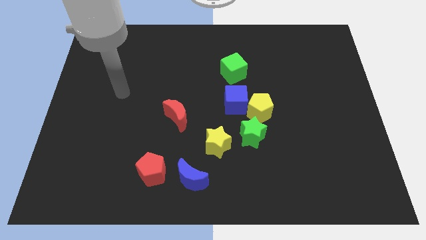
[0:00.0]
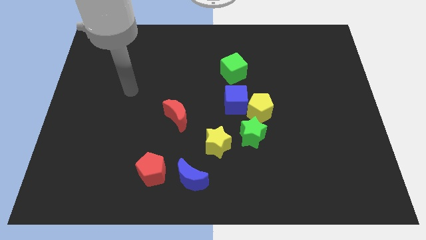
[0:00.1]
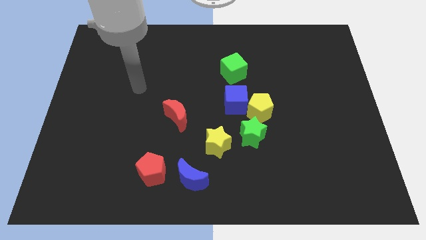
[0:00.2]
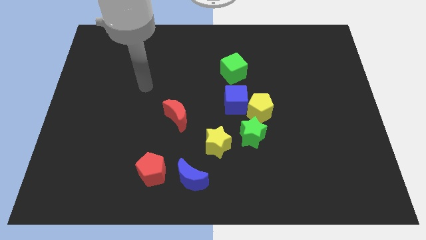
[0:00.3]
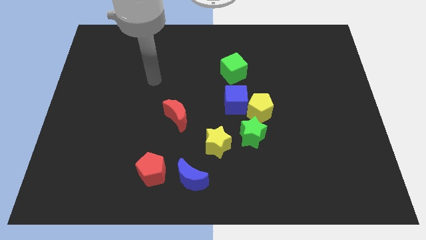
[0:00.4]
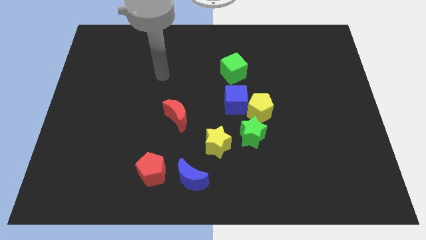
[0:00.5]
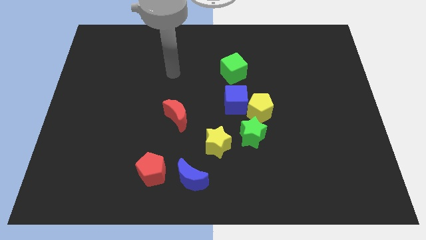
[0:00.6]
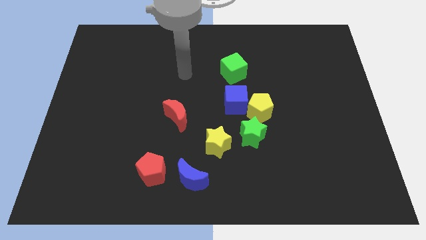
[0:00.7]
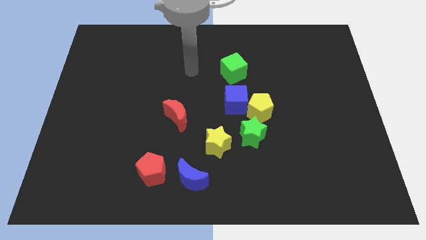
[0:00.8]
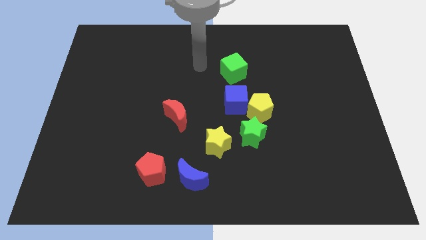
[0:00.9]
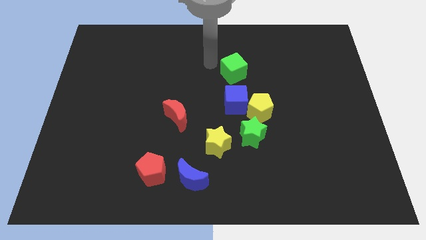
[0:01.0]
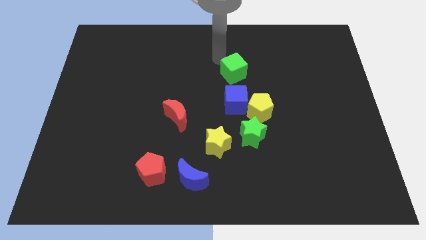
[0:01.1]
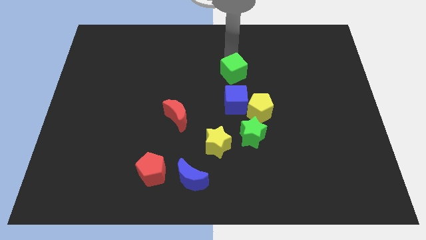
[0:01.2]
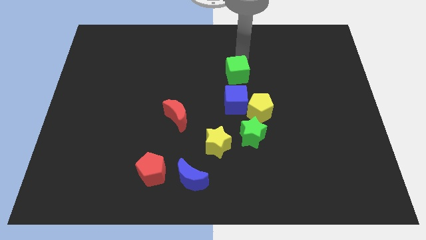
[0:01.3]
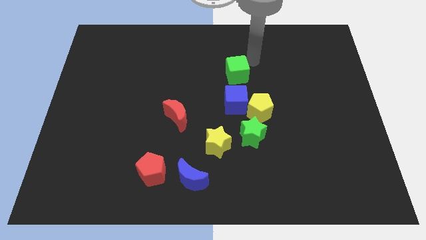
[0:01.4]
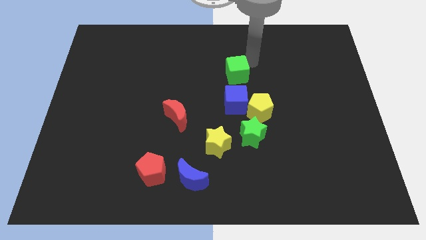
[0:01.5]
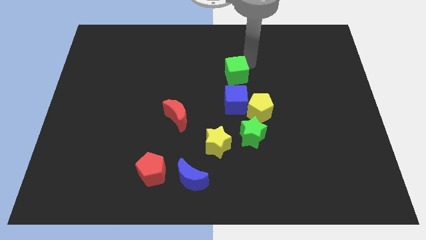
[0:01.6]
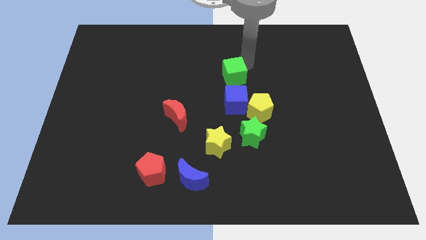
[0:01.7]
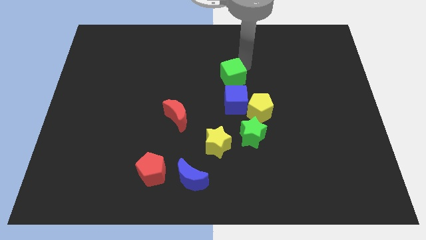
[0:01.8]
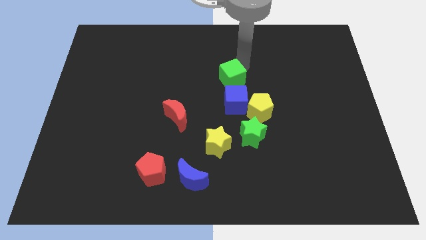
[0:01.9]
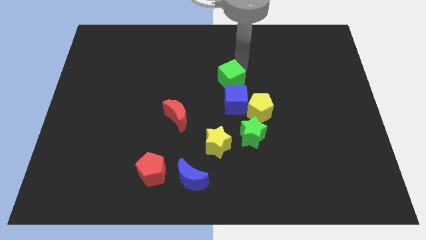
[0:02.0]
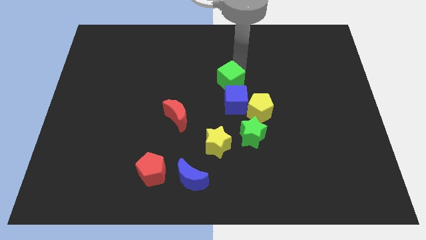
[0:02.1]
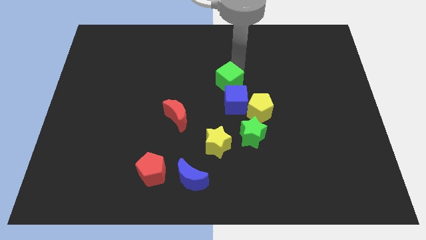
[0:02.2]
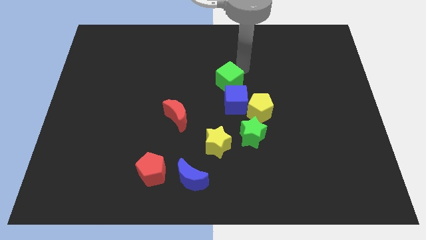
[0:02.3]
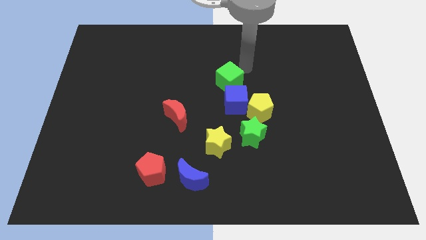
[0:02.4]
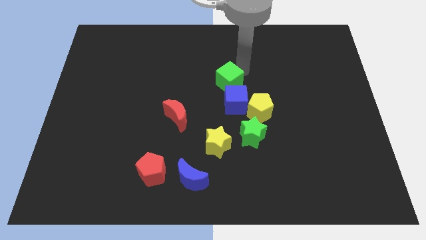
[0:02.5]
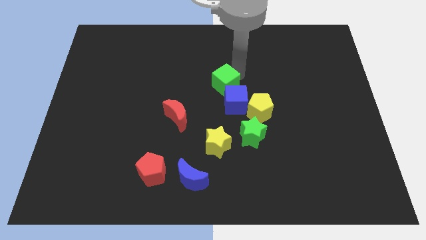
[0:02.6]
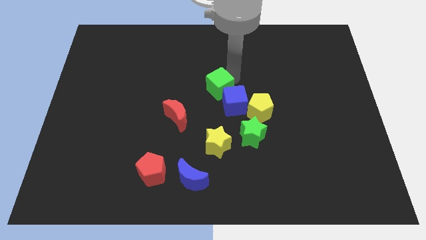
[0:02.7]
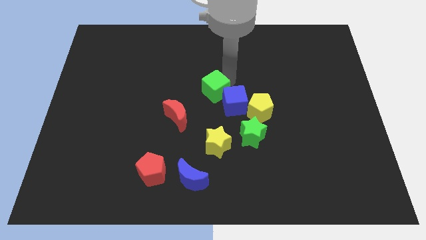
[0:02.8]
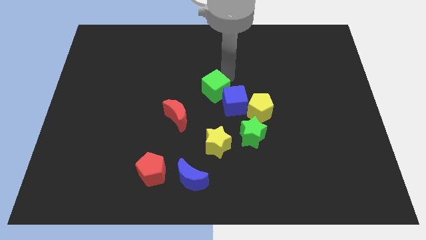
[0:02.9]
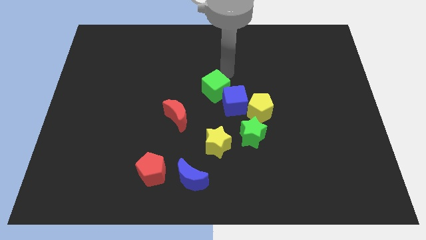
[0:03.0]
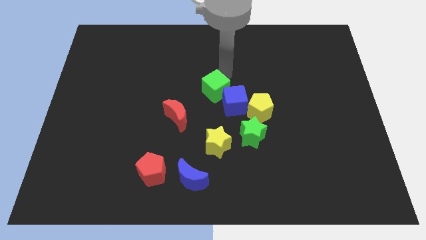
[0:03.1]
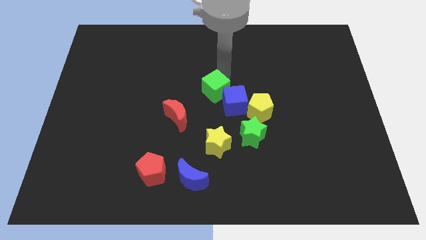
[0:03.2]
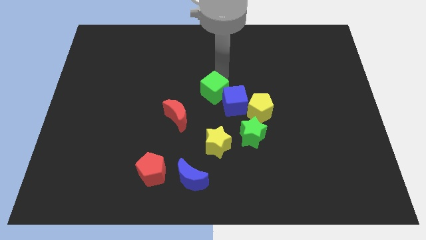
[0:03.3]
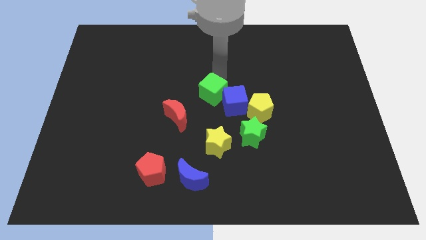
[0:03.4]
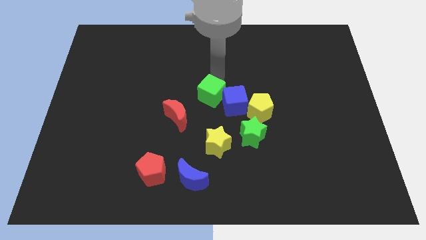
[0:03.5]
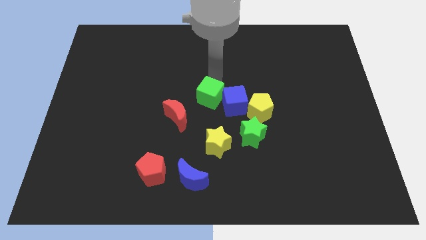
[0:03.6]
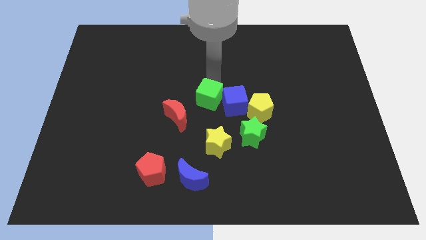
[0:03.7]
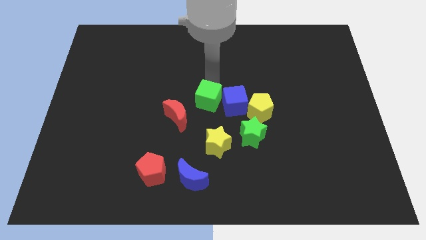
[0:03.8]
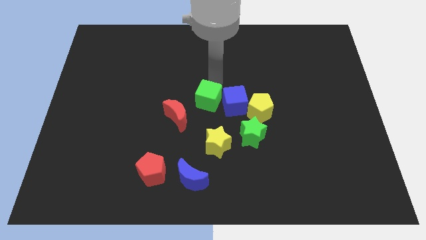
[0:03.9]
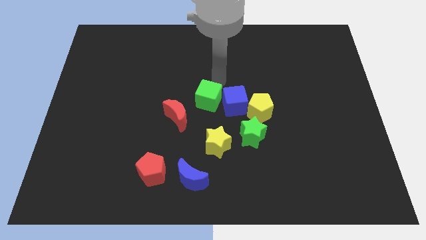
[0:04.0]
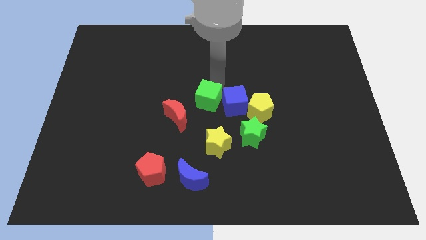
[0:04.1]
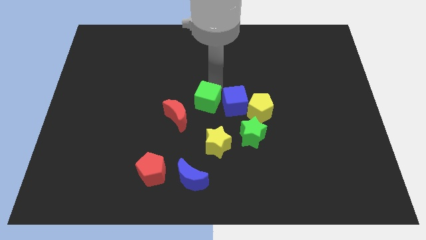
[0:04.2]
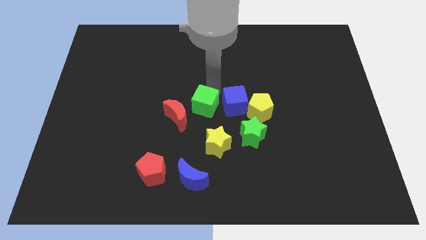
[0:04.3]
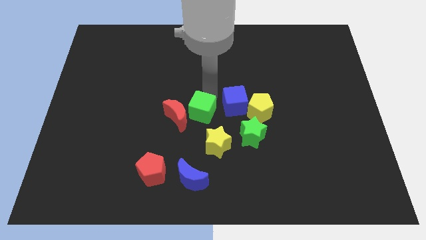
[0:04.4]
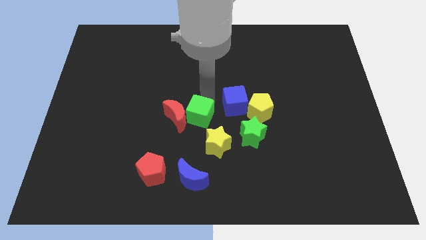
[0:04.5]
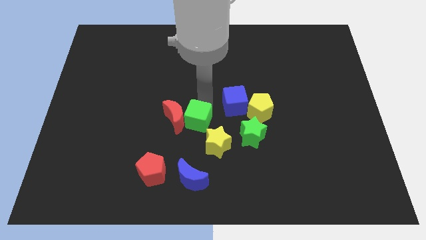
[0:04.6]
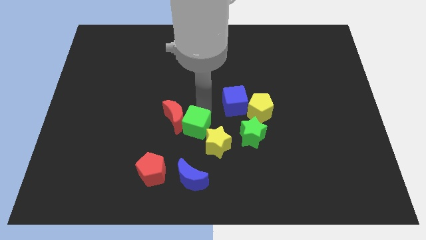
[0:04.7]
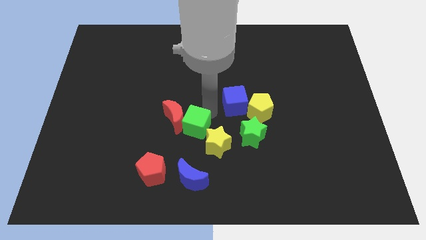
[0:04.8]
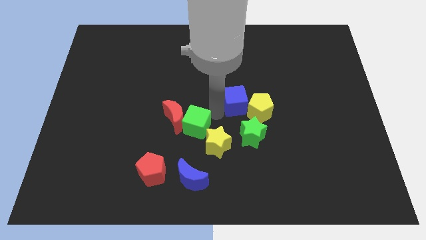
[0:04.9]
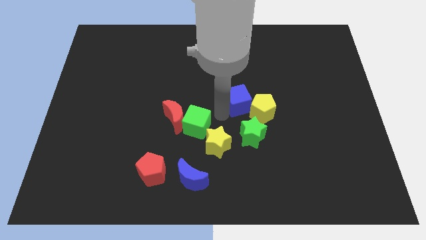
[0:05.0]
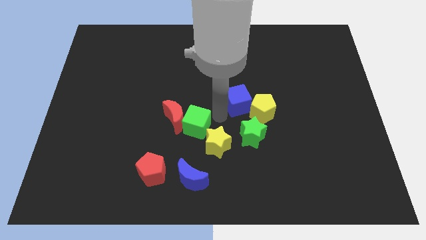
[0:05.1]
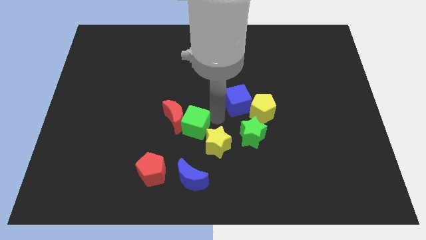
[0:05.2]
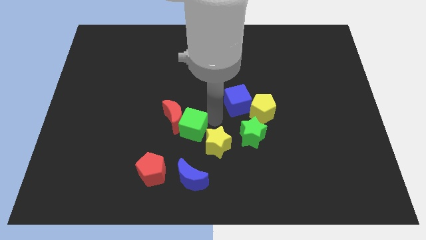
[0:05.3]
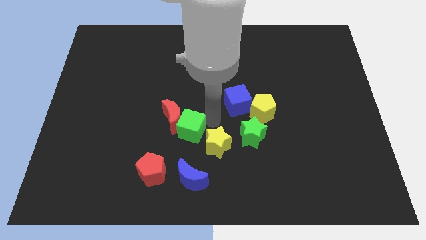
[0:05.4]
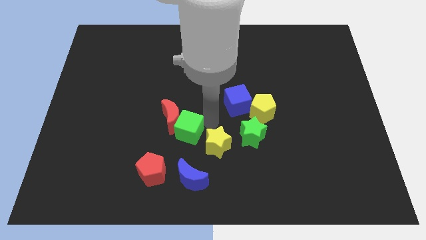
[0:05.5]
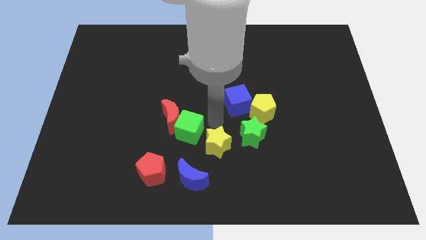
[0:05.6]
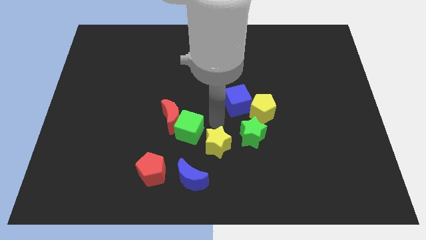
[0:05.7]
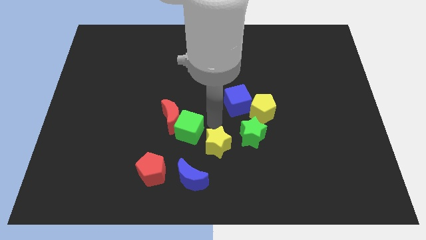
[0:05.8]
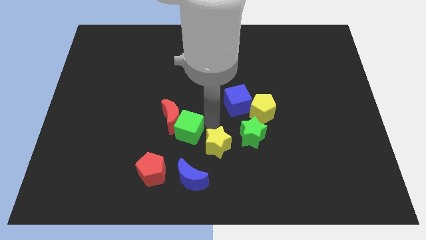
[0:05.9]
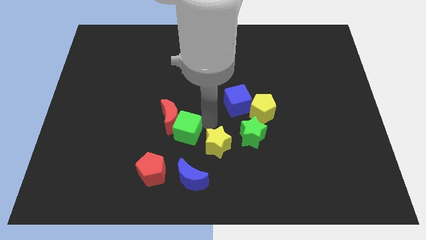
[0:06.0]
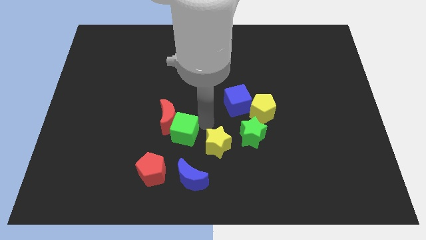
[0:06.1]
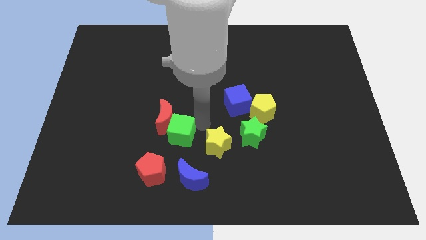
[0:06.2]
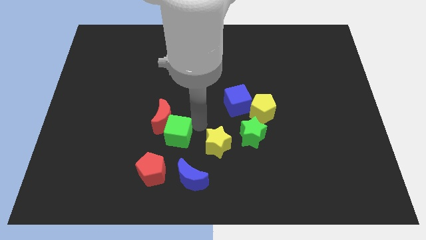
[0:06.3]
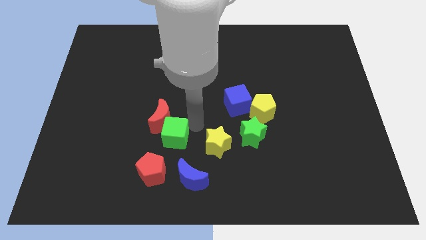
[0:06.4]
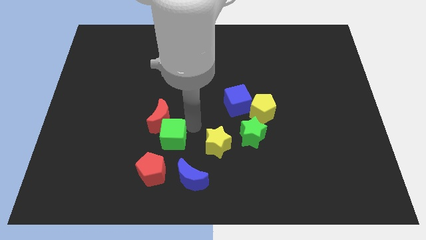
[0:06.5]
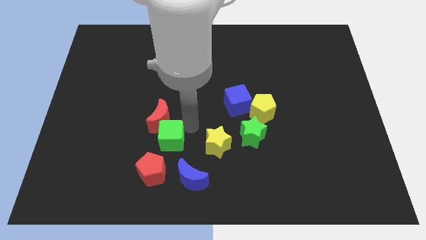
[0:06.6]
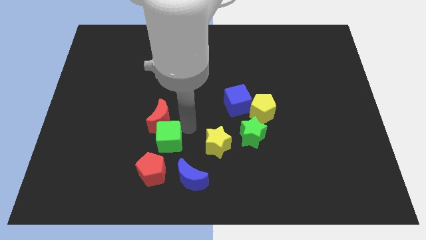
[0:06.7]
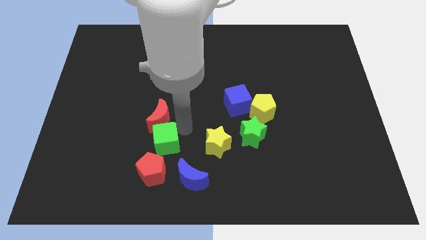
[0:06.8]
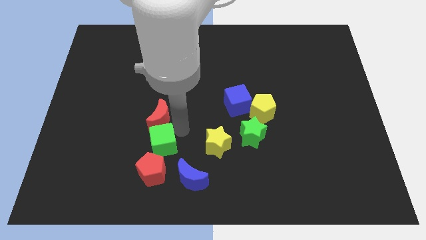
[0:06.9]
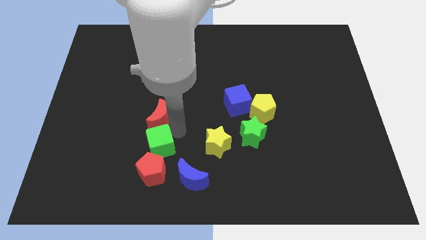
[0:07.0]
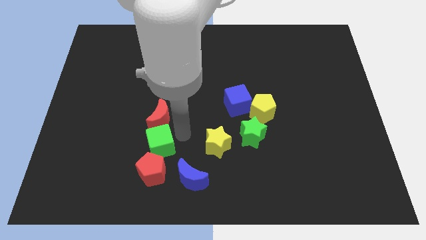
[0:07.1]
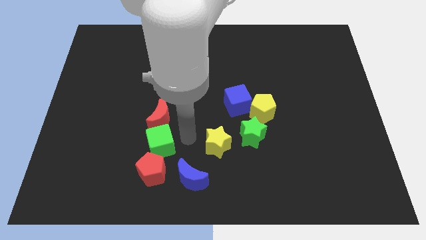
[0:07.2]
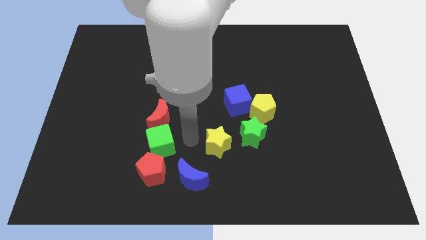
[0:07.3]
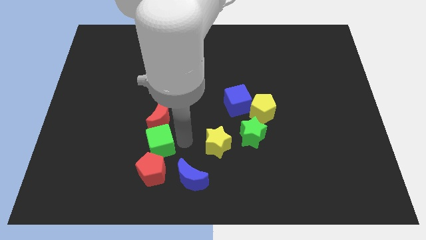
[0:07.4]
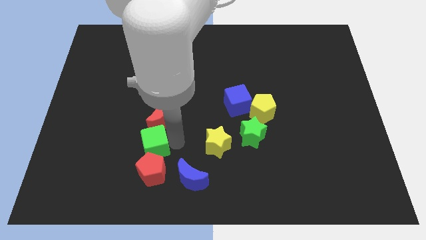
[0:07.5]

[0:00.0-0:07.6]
move the green cube to the top left of the red pentagon

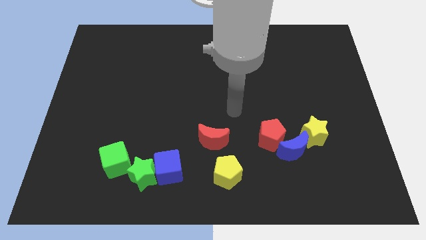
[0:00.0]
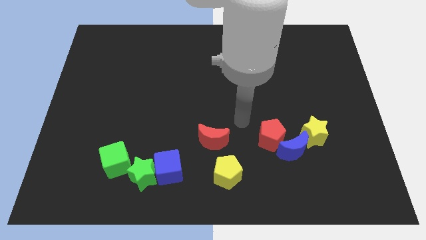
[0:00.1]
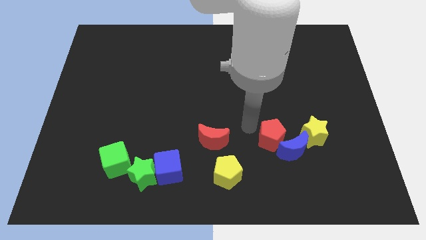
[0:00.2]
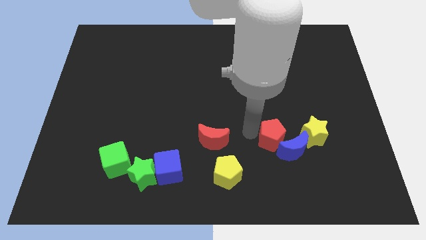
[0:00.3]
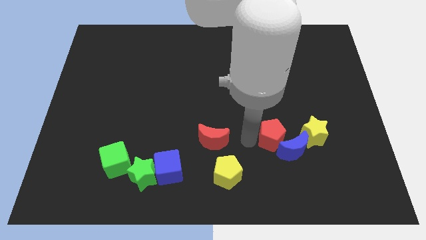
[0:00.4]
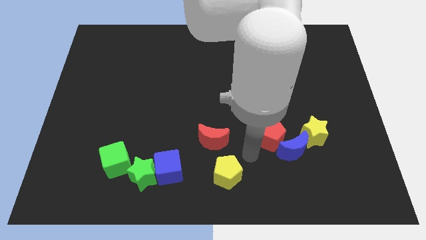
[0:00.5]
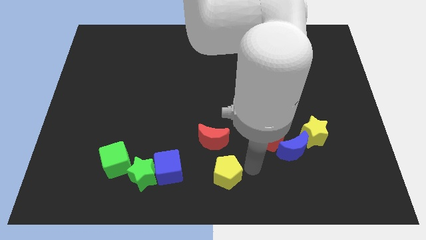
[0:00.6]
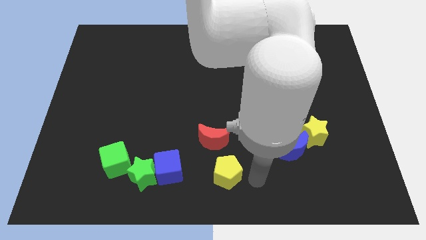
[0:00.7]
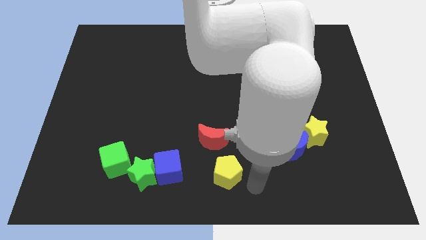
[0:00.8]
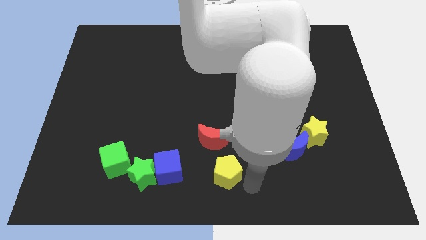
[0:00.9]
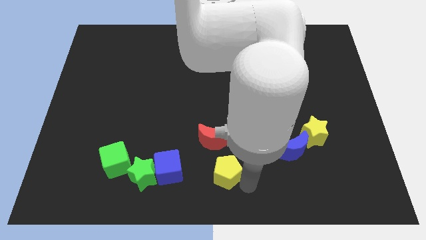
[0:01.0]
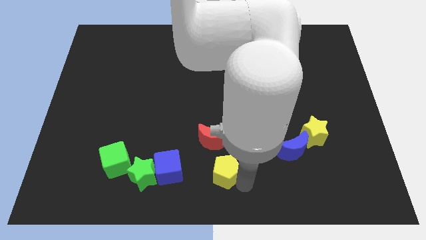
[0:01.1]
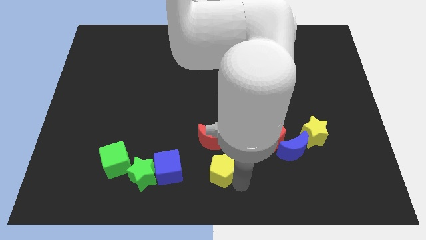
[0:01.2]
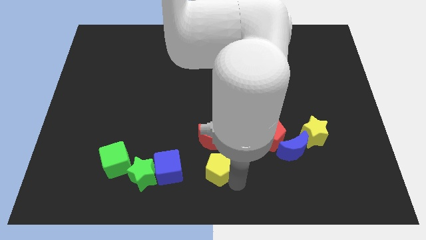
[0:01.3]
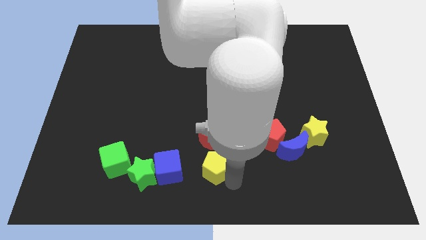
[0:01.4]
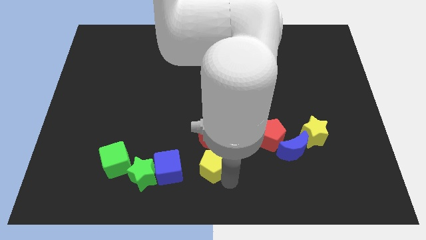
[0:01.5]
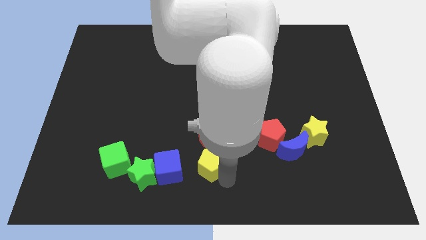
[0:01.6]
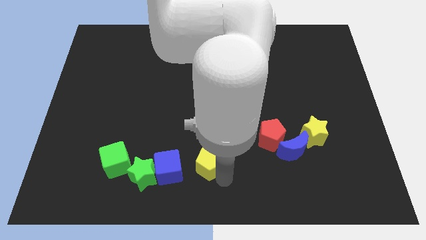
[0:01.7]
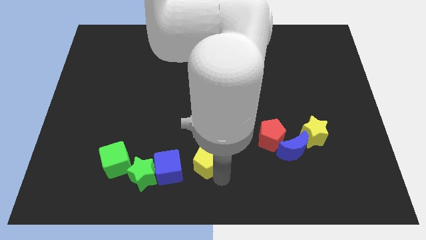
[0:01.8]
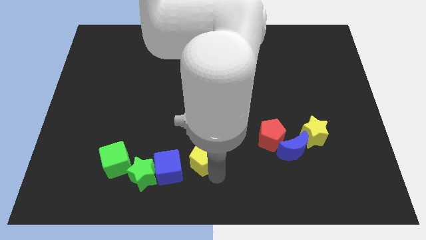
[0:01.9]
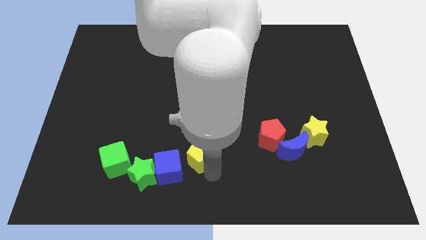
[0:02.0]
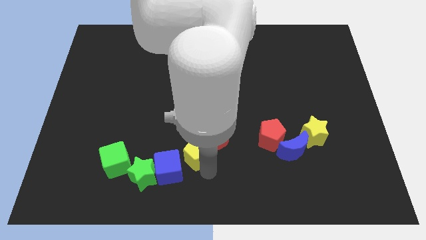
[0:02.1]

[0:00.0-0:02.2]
put the yellow pentagon just left of the red moon
